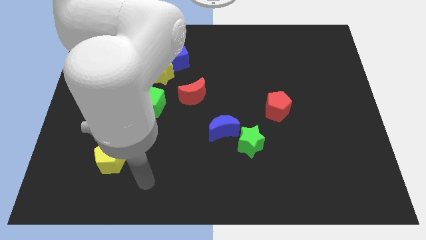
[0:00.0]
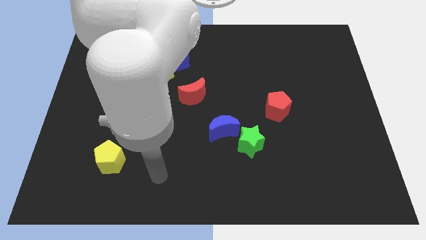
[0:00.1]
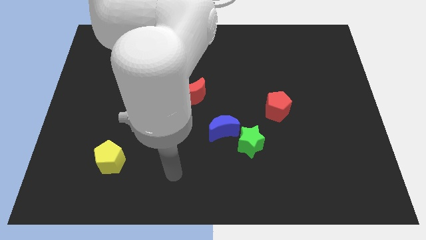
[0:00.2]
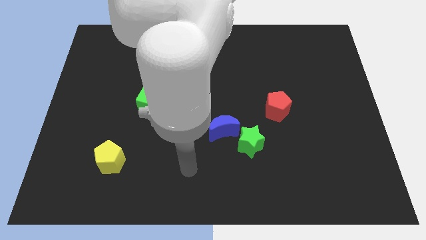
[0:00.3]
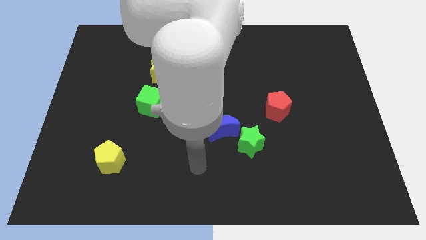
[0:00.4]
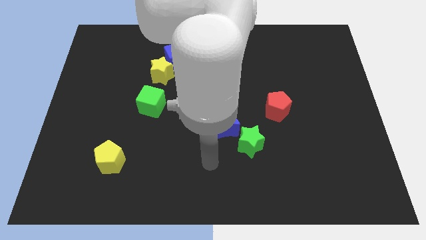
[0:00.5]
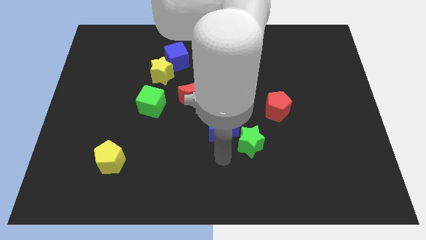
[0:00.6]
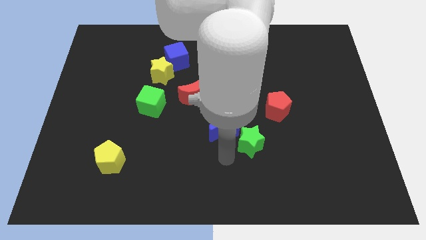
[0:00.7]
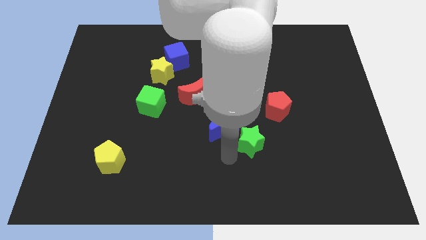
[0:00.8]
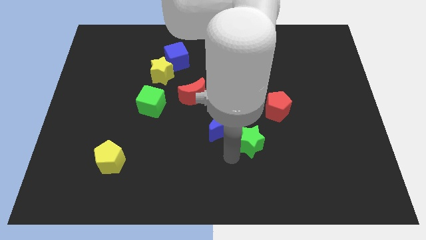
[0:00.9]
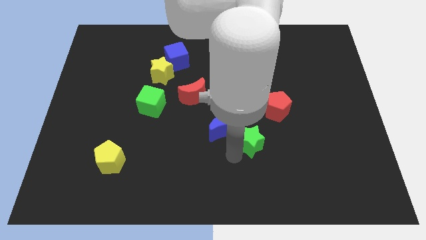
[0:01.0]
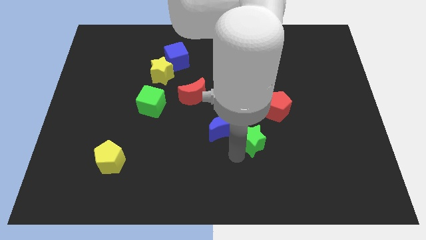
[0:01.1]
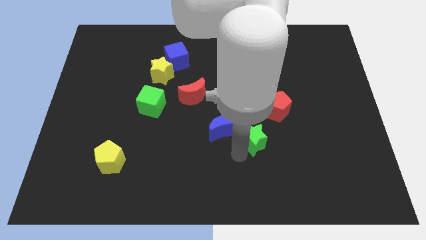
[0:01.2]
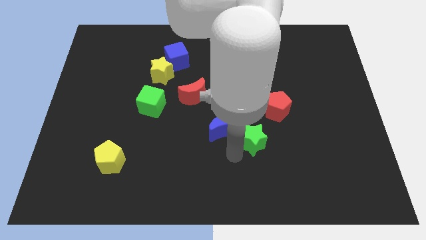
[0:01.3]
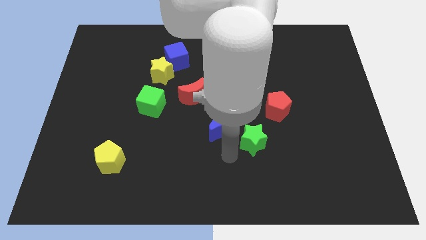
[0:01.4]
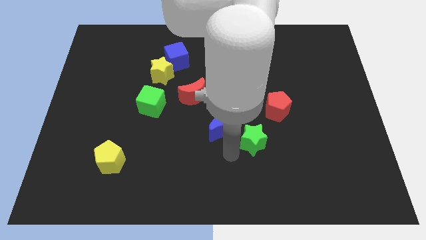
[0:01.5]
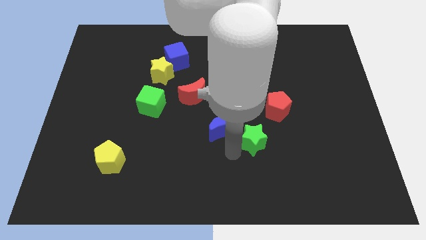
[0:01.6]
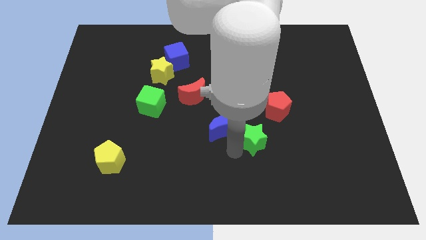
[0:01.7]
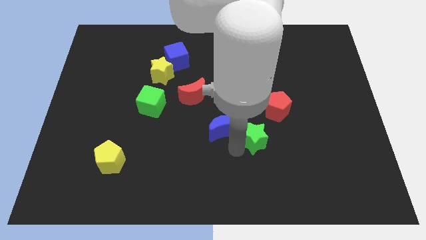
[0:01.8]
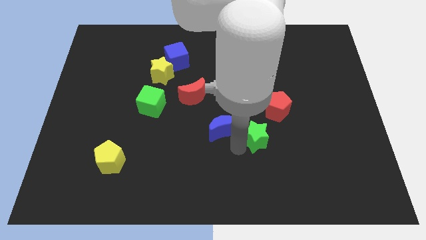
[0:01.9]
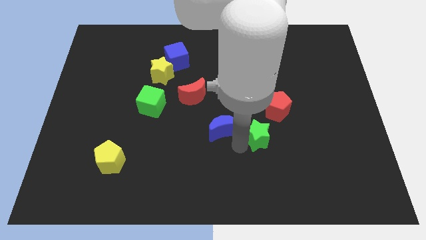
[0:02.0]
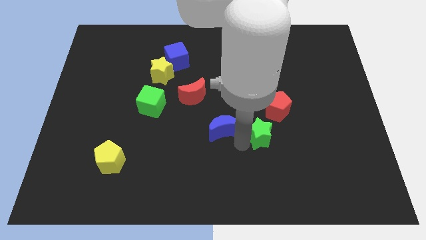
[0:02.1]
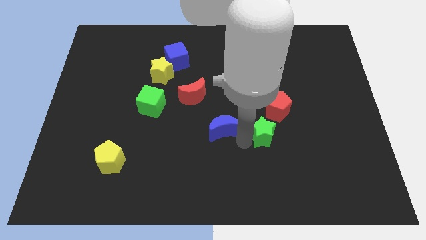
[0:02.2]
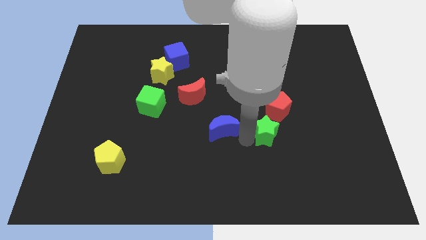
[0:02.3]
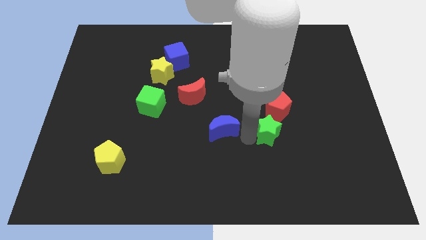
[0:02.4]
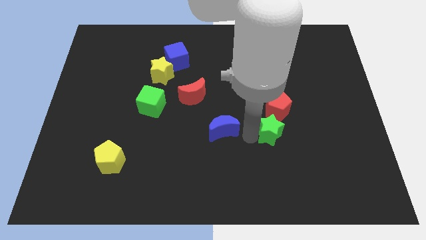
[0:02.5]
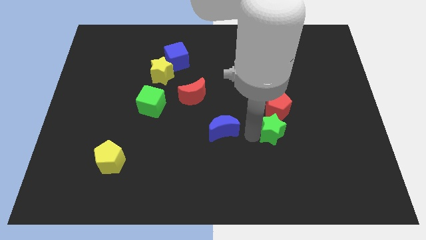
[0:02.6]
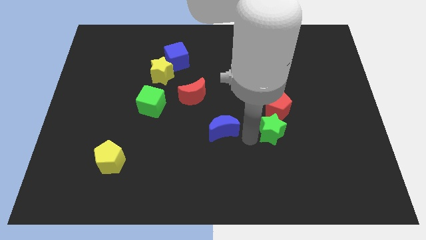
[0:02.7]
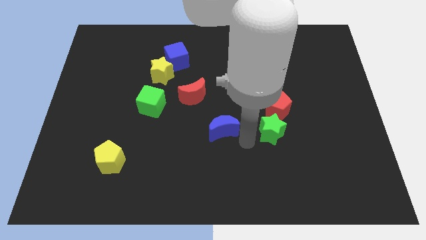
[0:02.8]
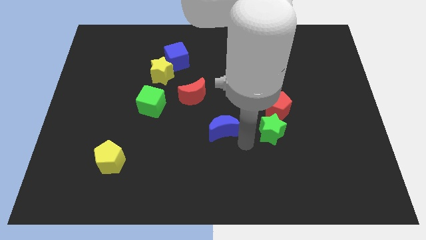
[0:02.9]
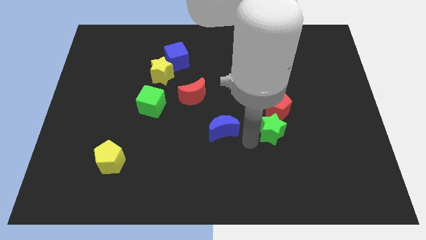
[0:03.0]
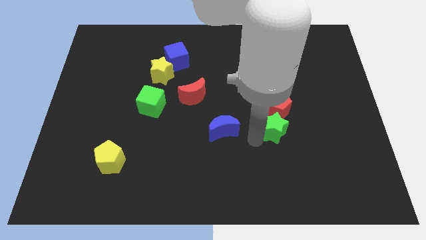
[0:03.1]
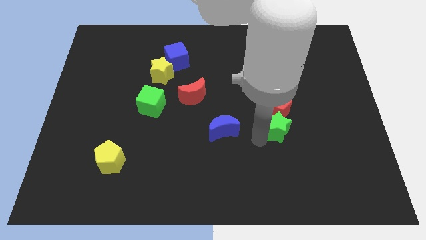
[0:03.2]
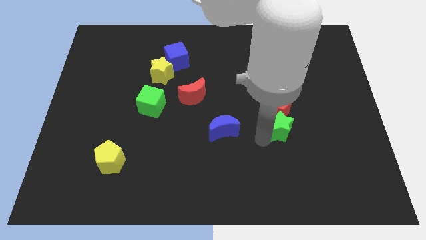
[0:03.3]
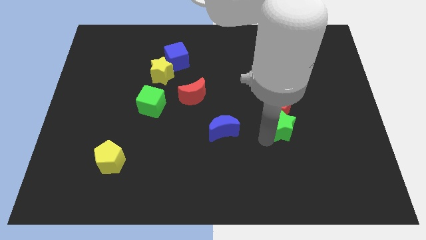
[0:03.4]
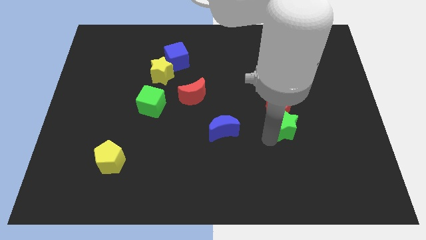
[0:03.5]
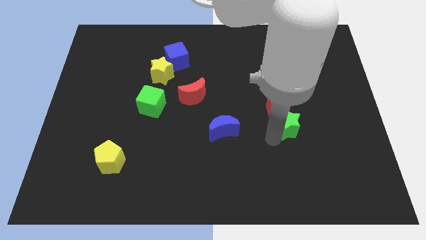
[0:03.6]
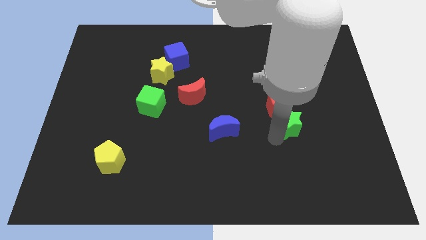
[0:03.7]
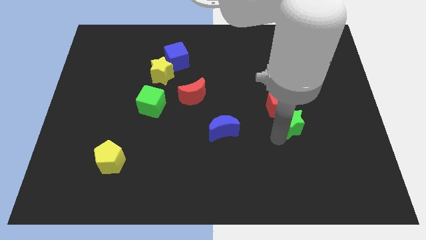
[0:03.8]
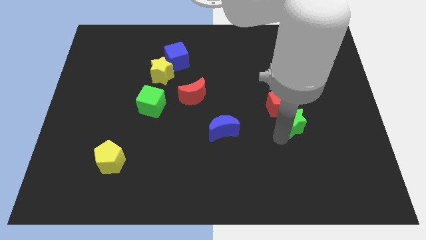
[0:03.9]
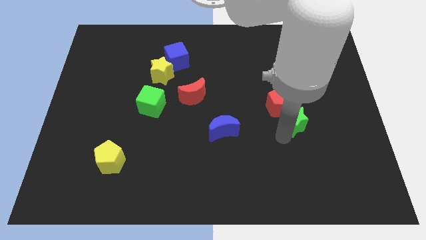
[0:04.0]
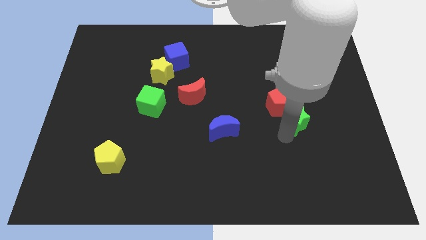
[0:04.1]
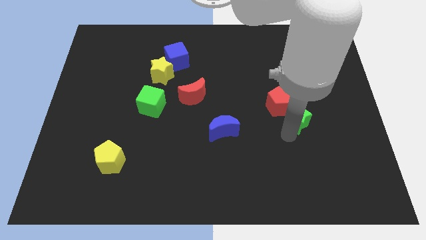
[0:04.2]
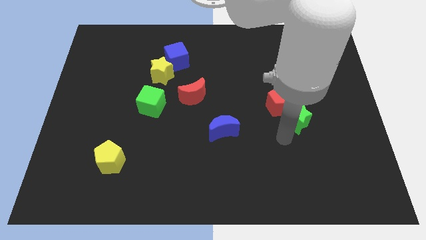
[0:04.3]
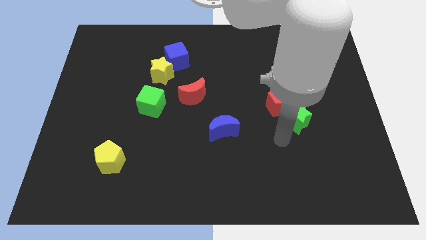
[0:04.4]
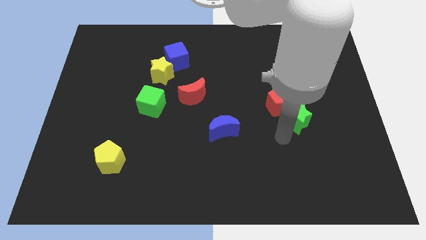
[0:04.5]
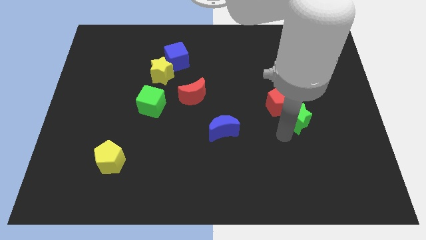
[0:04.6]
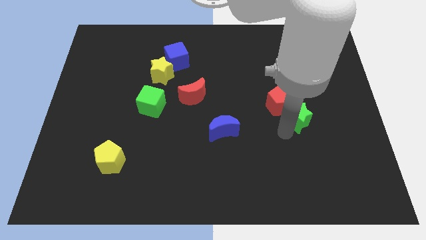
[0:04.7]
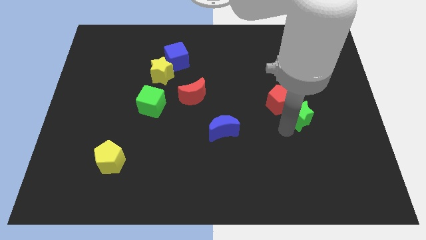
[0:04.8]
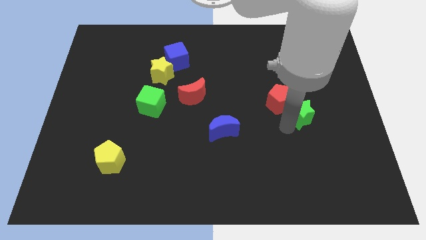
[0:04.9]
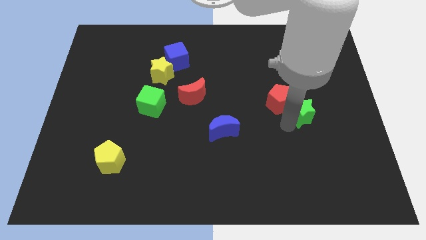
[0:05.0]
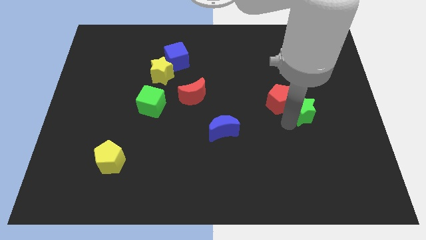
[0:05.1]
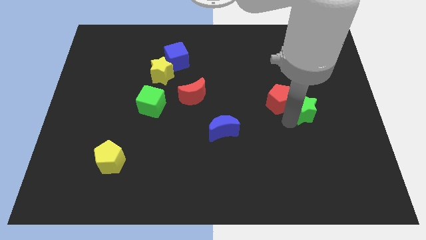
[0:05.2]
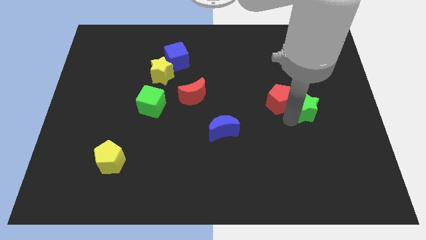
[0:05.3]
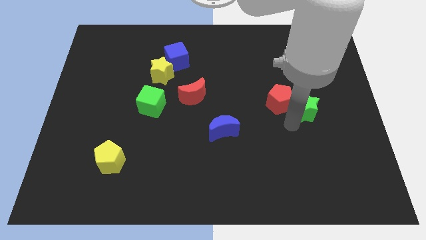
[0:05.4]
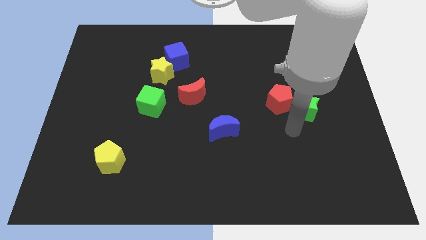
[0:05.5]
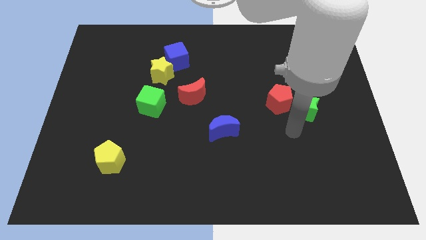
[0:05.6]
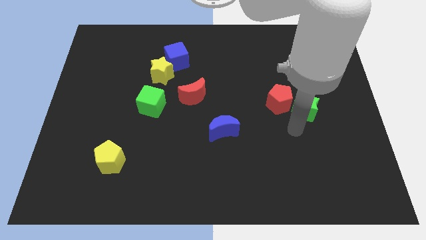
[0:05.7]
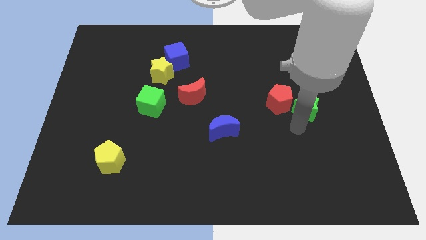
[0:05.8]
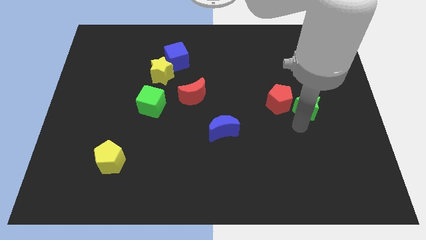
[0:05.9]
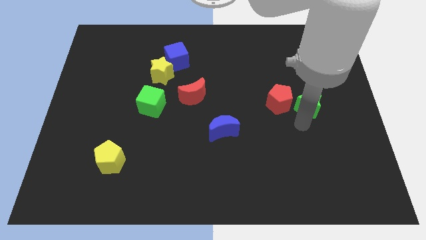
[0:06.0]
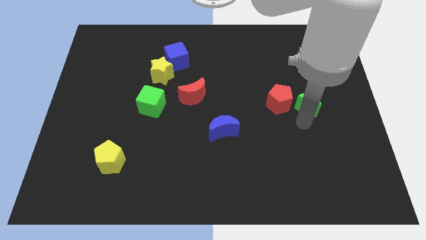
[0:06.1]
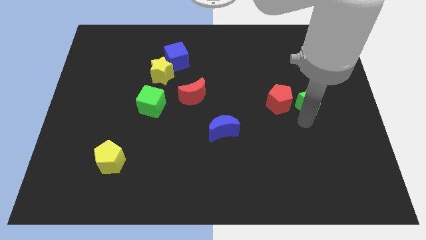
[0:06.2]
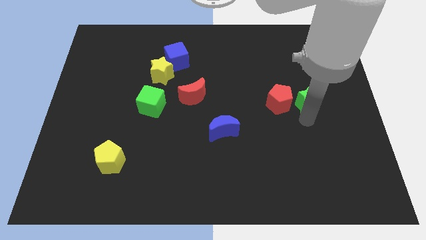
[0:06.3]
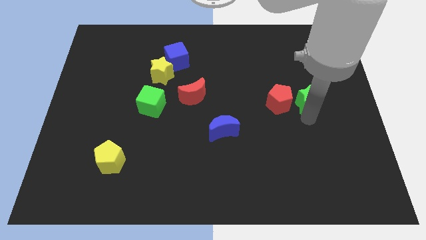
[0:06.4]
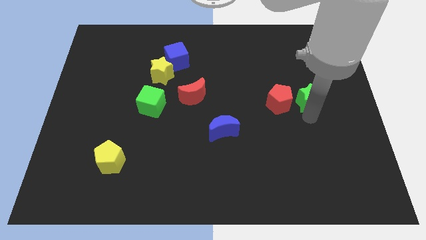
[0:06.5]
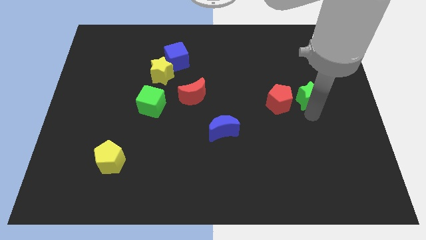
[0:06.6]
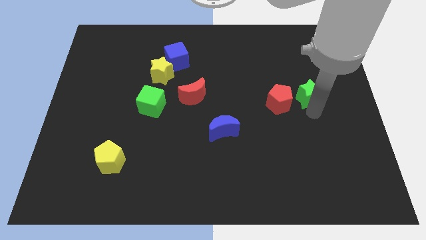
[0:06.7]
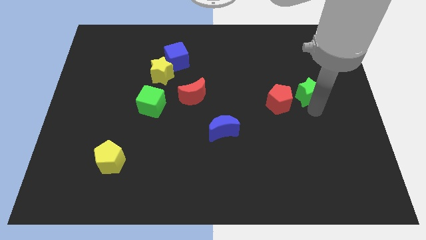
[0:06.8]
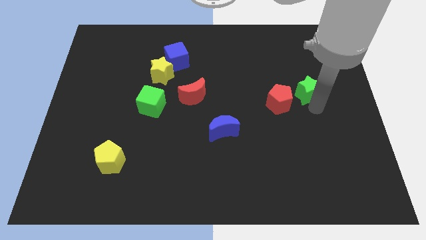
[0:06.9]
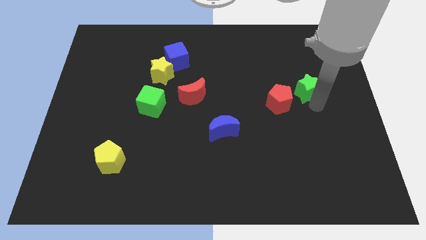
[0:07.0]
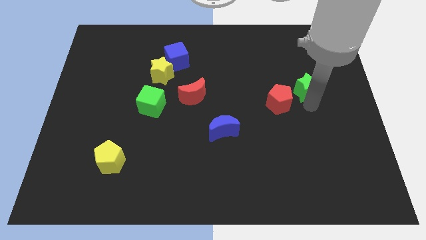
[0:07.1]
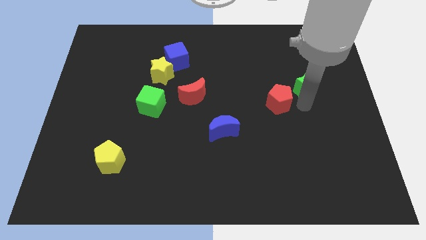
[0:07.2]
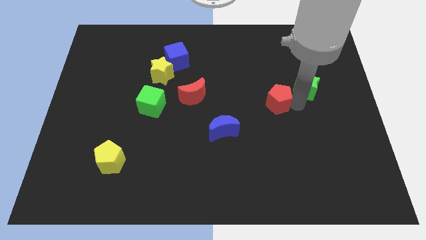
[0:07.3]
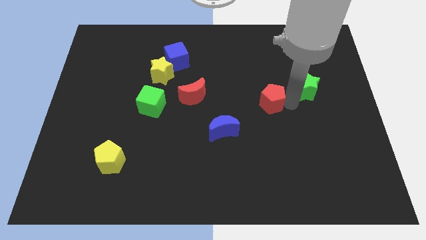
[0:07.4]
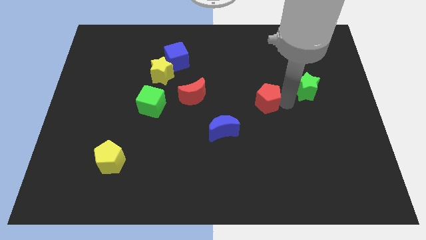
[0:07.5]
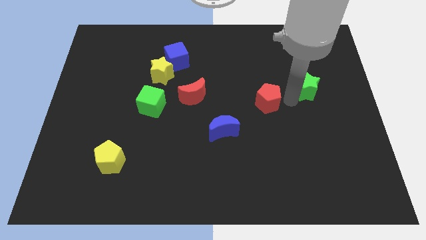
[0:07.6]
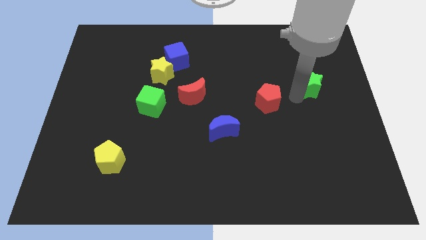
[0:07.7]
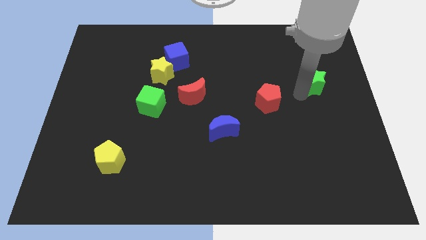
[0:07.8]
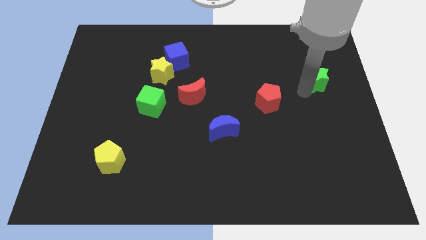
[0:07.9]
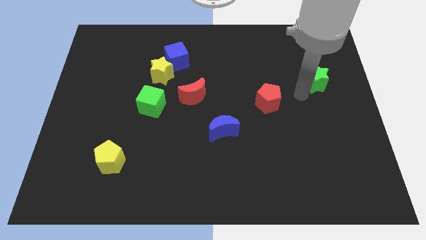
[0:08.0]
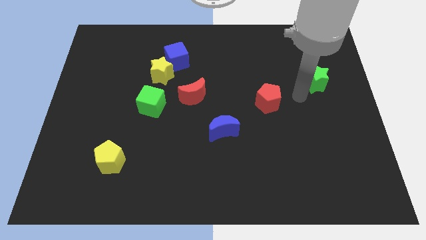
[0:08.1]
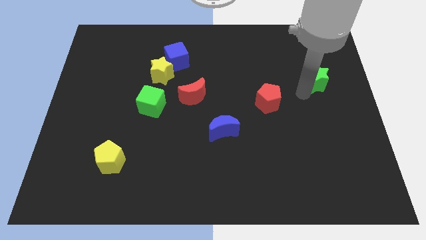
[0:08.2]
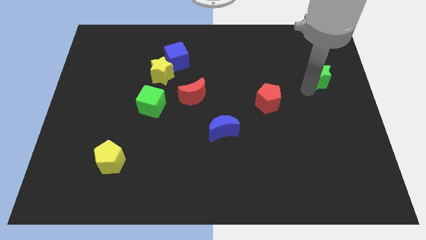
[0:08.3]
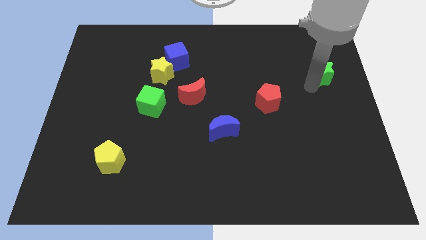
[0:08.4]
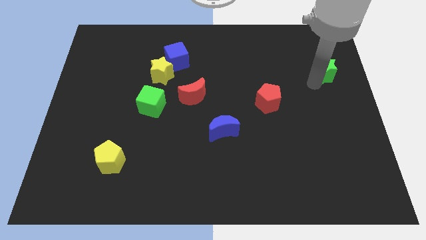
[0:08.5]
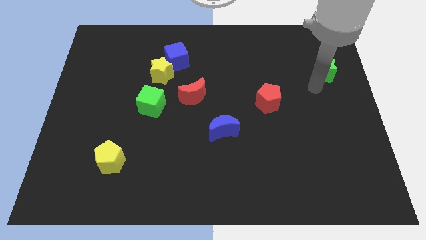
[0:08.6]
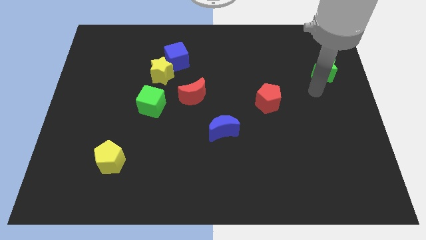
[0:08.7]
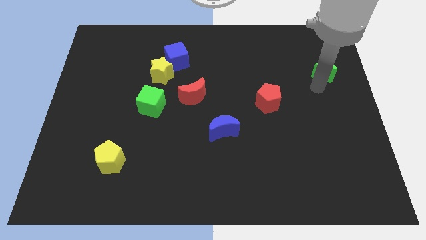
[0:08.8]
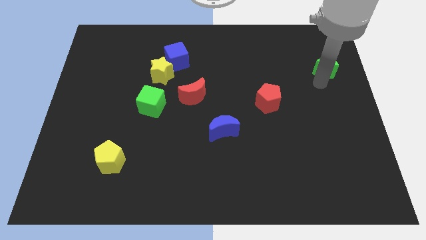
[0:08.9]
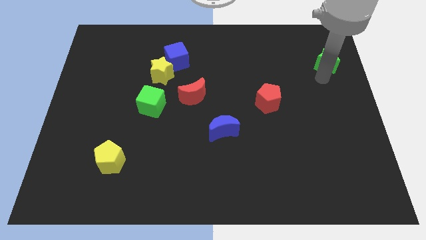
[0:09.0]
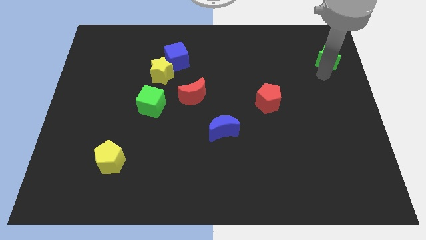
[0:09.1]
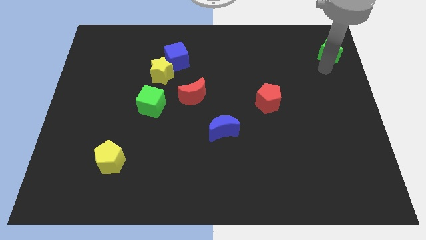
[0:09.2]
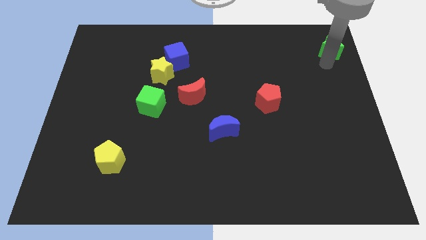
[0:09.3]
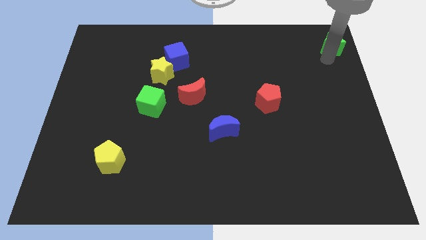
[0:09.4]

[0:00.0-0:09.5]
slide the green star to the upper right corner
